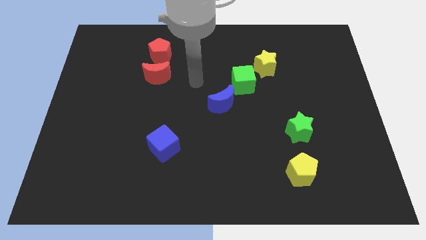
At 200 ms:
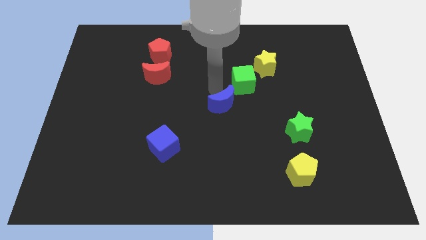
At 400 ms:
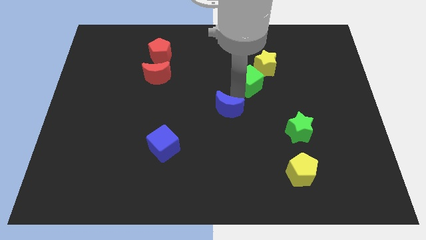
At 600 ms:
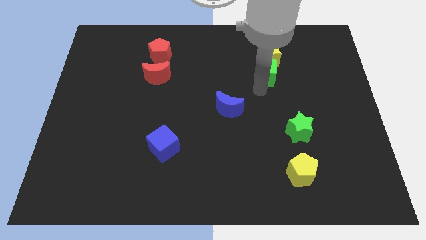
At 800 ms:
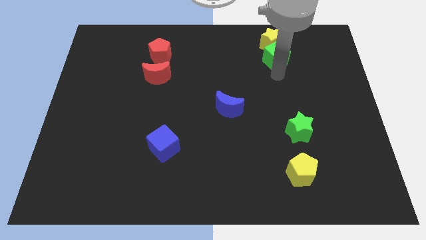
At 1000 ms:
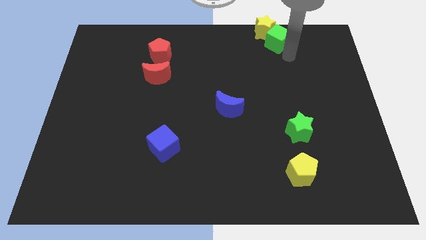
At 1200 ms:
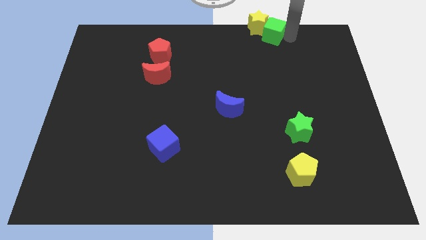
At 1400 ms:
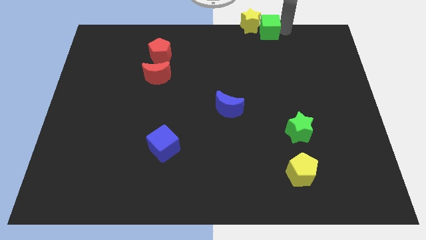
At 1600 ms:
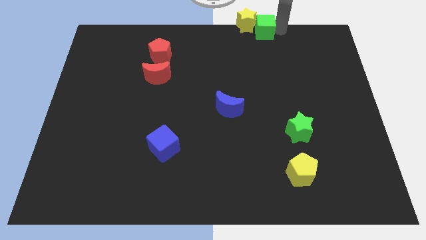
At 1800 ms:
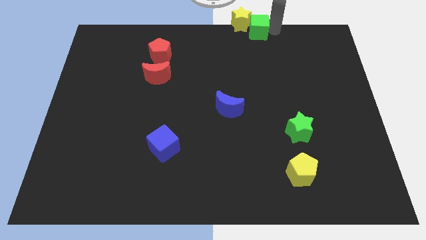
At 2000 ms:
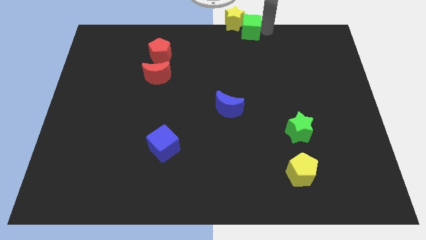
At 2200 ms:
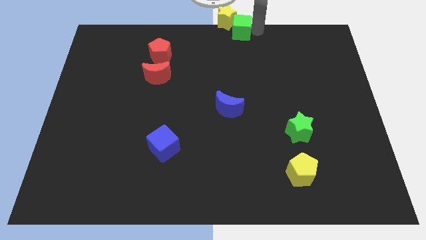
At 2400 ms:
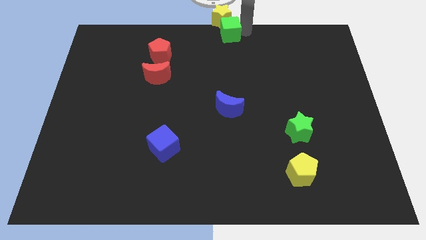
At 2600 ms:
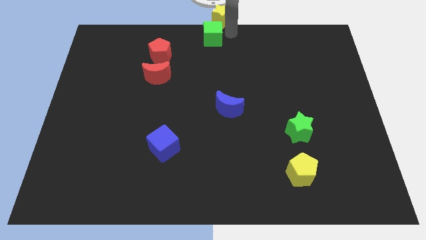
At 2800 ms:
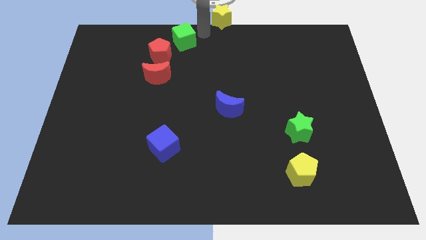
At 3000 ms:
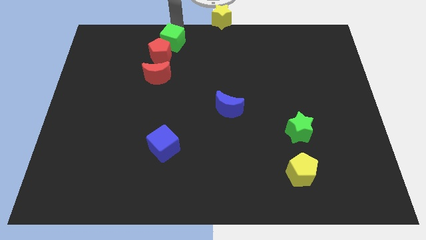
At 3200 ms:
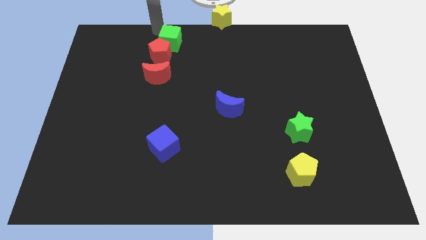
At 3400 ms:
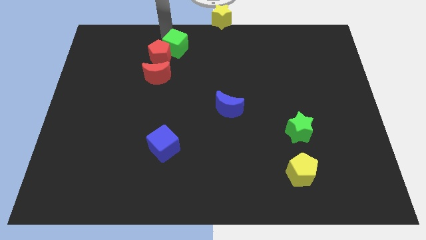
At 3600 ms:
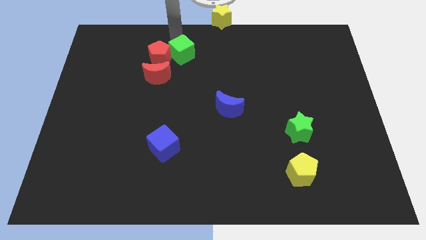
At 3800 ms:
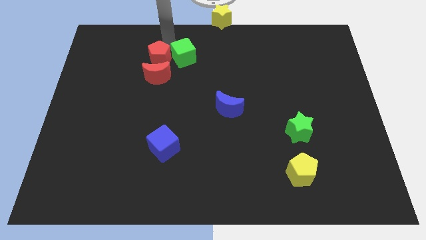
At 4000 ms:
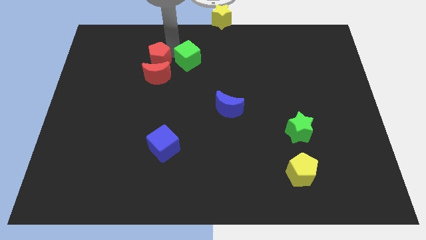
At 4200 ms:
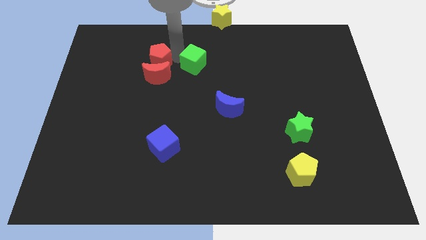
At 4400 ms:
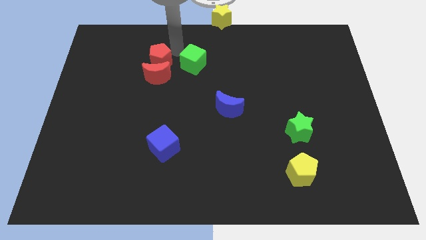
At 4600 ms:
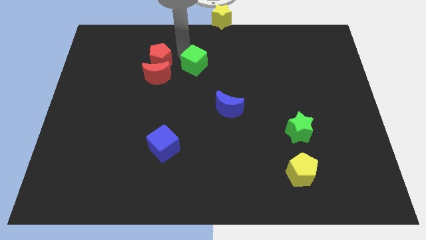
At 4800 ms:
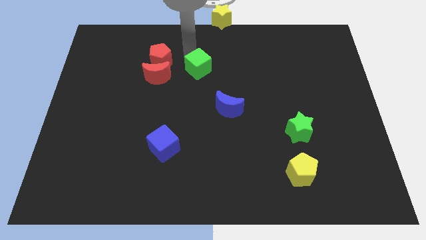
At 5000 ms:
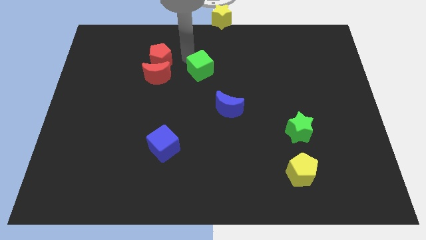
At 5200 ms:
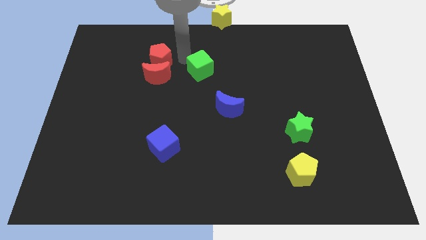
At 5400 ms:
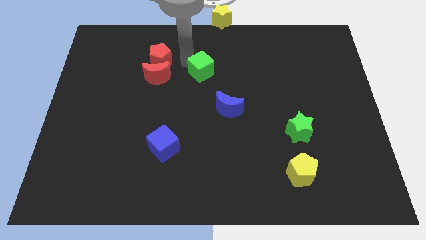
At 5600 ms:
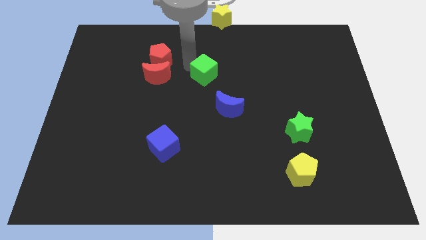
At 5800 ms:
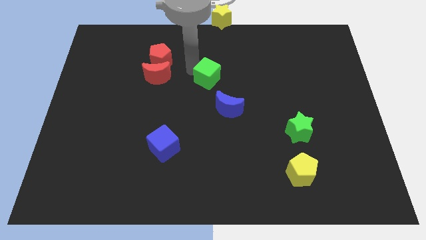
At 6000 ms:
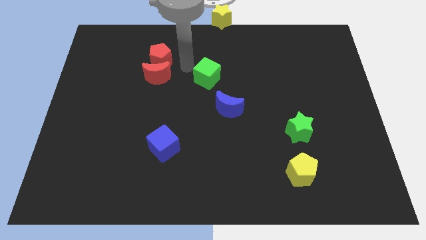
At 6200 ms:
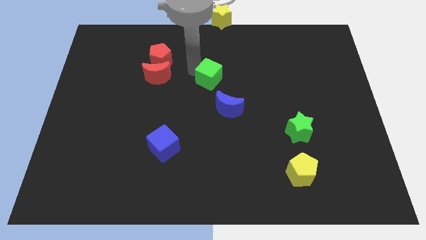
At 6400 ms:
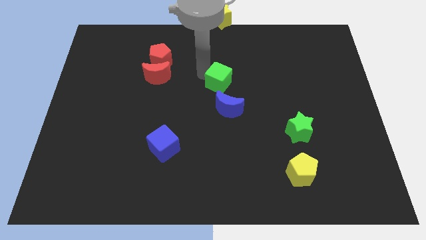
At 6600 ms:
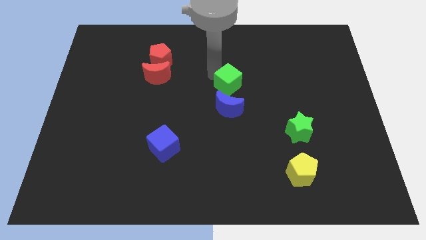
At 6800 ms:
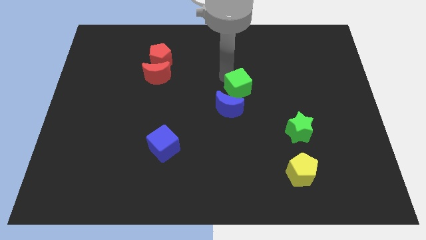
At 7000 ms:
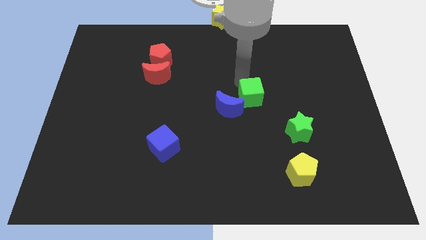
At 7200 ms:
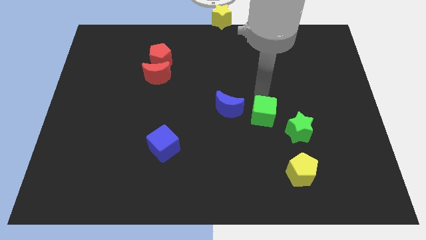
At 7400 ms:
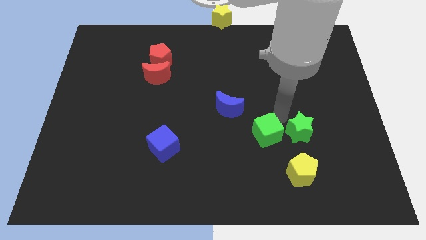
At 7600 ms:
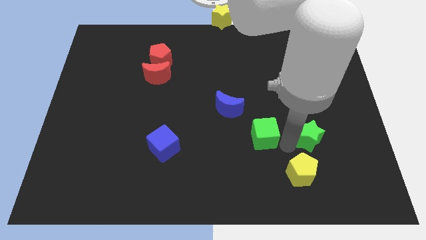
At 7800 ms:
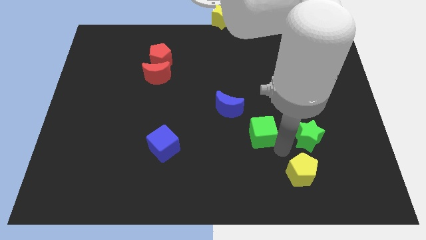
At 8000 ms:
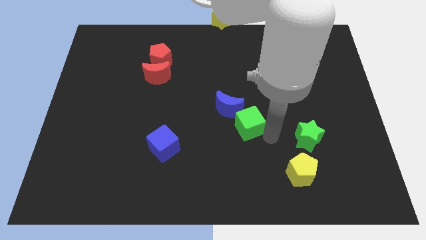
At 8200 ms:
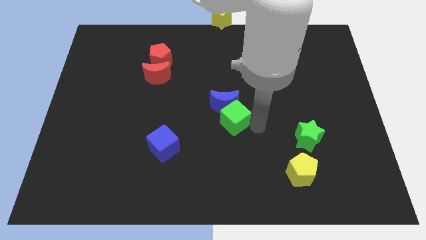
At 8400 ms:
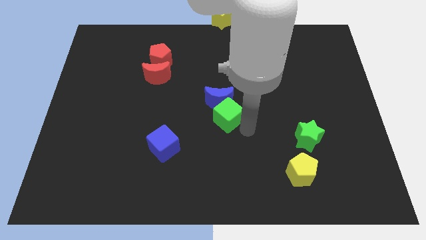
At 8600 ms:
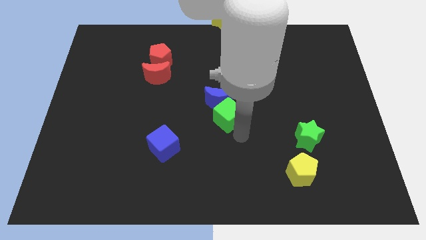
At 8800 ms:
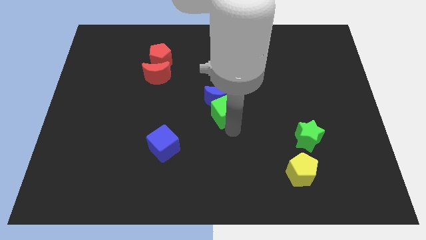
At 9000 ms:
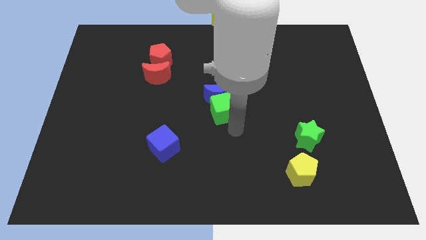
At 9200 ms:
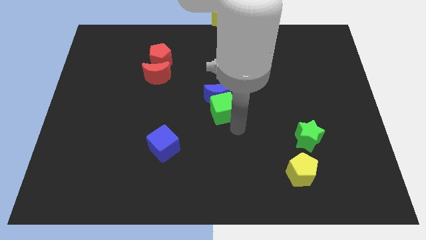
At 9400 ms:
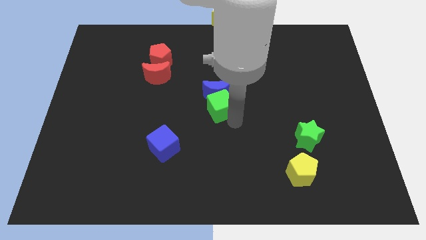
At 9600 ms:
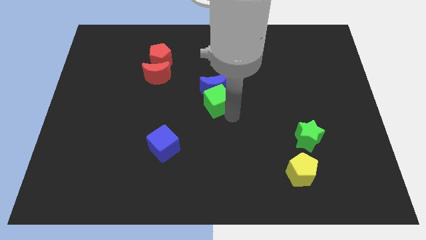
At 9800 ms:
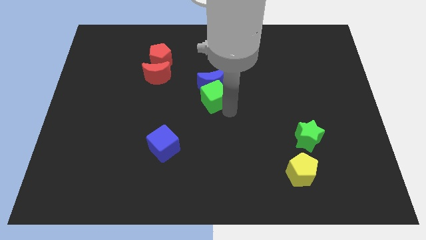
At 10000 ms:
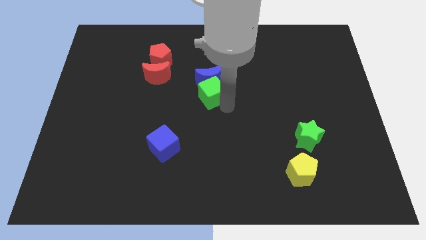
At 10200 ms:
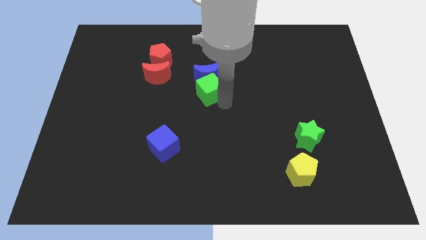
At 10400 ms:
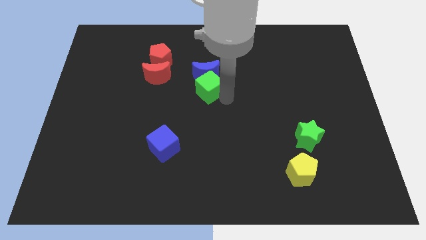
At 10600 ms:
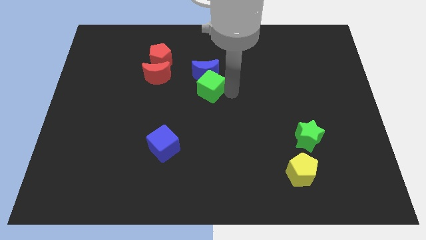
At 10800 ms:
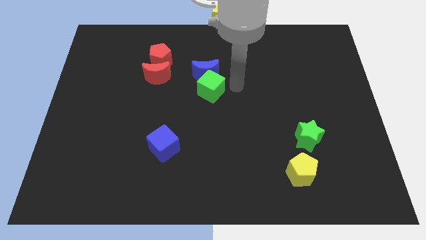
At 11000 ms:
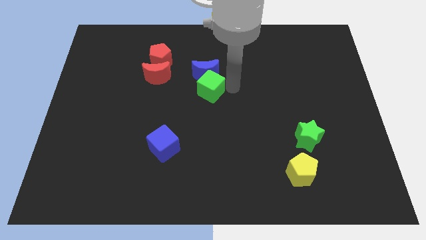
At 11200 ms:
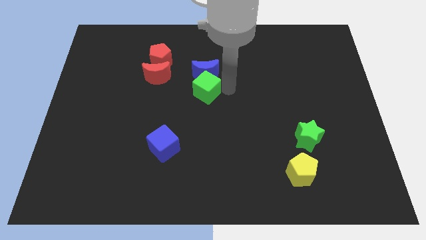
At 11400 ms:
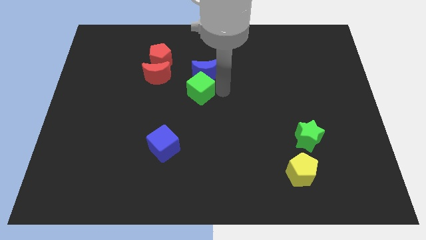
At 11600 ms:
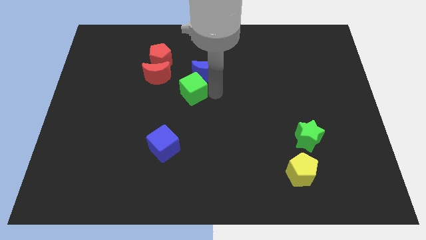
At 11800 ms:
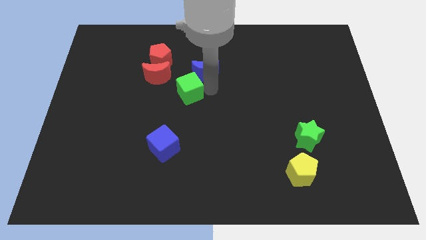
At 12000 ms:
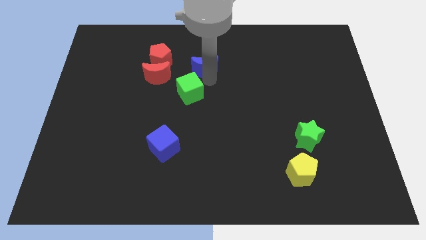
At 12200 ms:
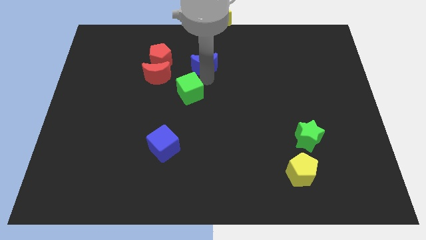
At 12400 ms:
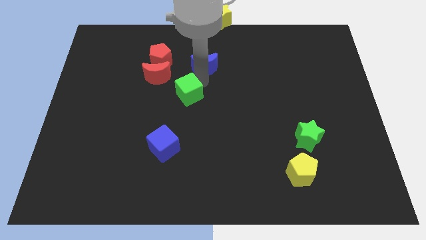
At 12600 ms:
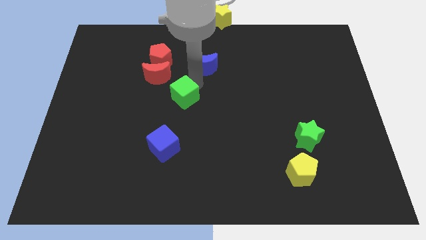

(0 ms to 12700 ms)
put the green cube to the top of the blue cube

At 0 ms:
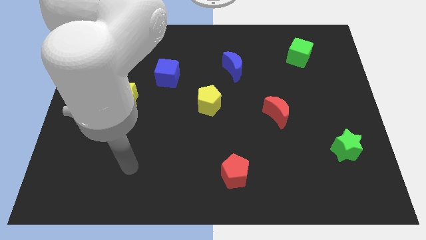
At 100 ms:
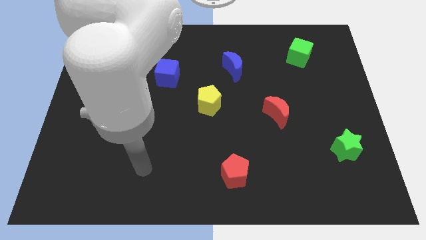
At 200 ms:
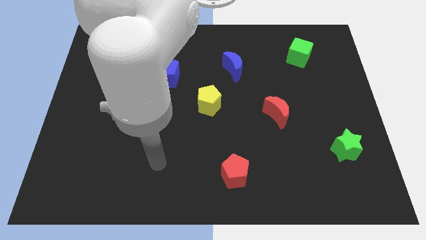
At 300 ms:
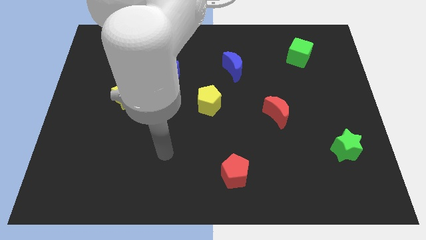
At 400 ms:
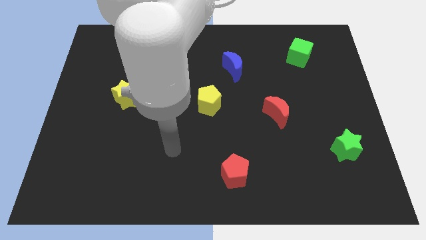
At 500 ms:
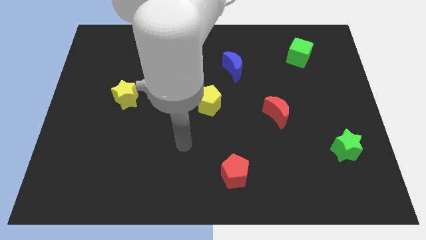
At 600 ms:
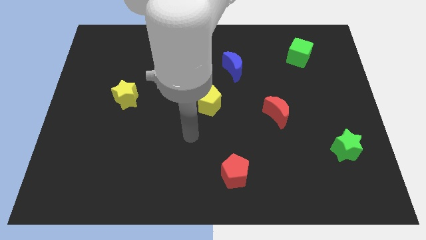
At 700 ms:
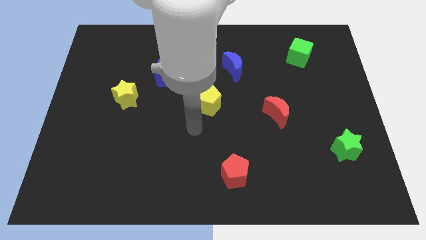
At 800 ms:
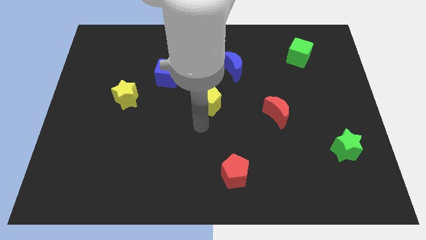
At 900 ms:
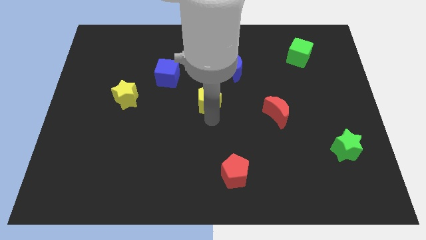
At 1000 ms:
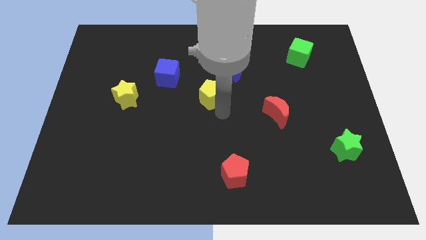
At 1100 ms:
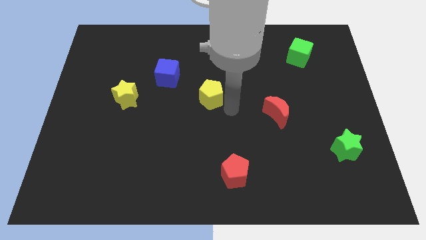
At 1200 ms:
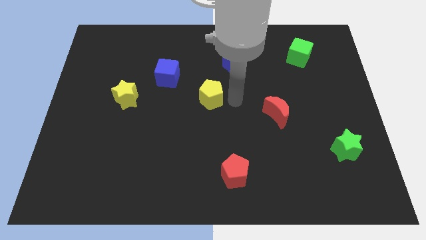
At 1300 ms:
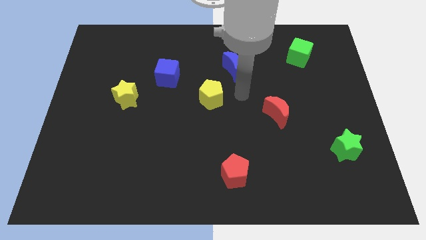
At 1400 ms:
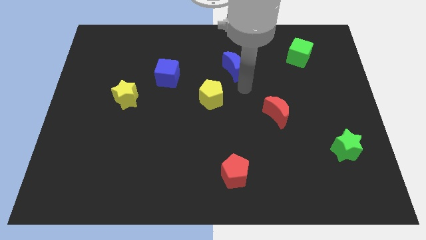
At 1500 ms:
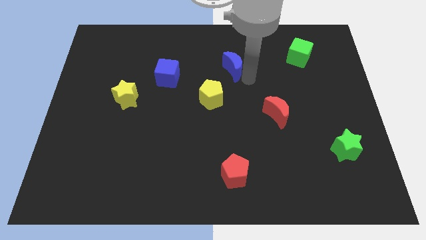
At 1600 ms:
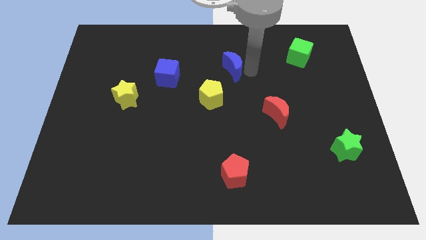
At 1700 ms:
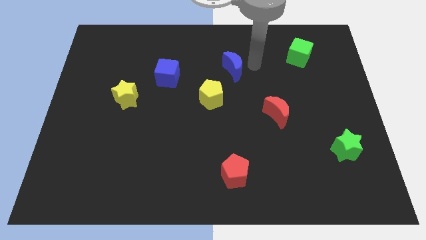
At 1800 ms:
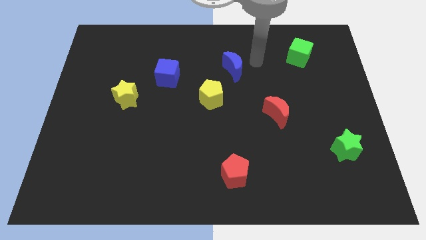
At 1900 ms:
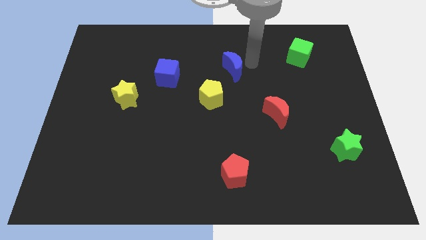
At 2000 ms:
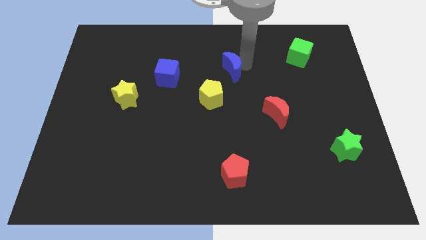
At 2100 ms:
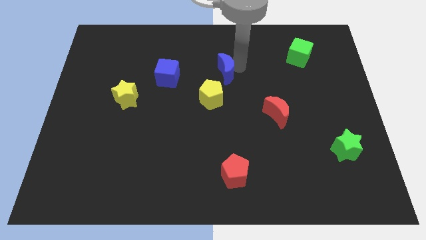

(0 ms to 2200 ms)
move the blue moon to the right side of the blue cube

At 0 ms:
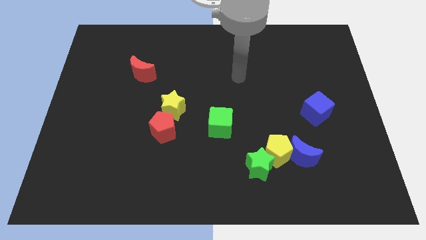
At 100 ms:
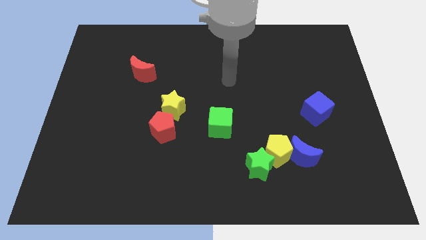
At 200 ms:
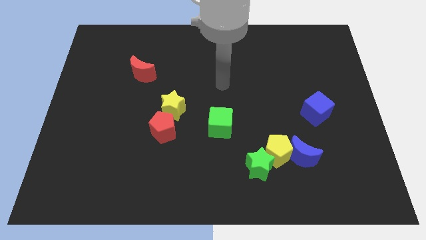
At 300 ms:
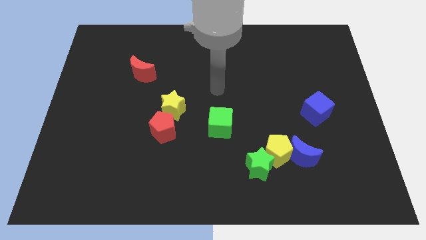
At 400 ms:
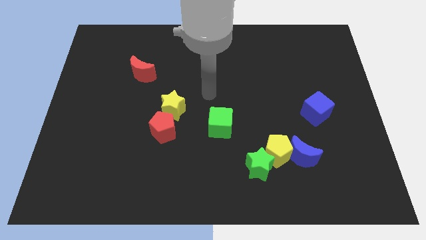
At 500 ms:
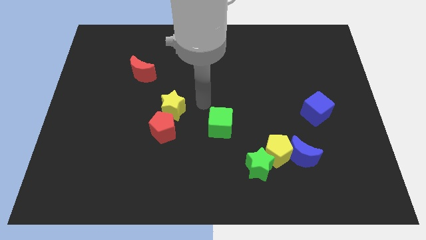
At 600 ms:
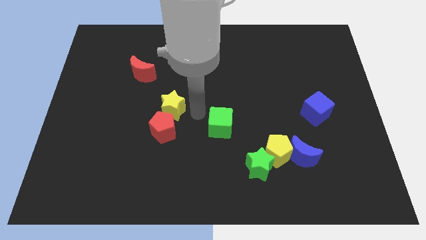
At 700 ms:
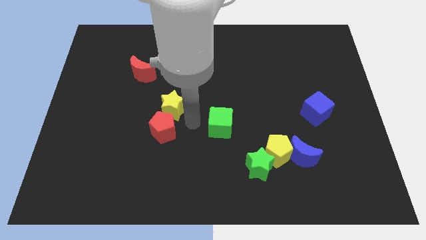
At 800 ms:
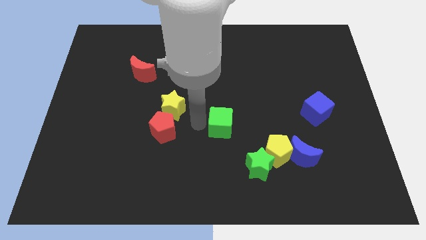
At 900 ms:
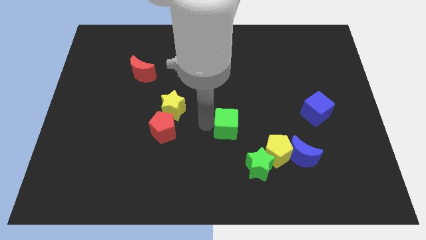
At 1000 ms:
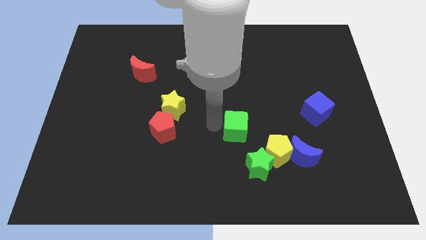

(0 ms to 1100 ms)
slide the green cube to the top side of the green star
